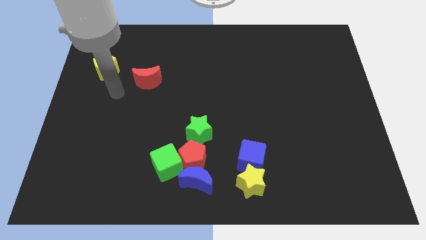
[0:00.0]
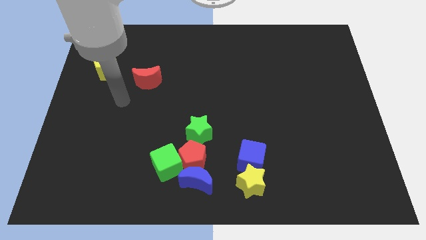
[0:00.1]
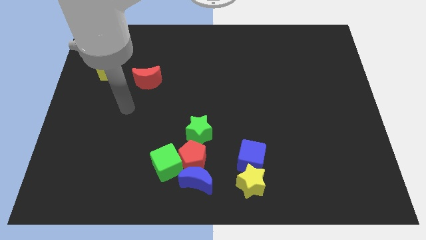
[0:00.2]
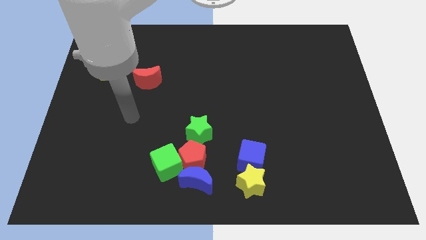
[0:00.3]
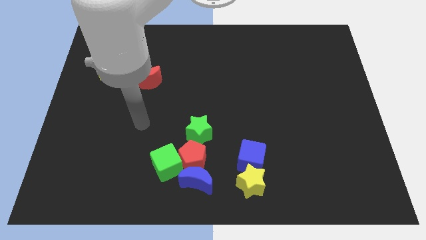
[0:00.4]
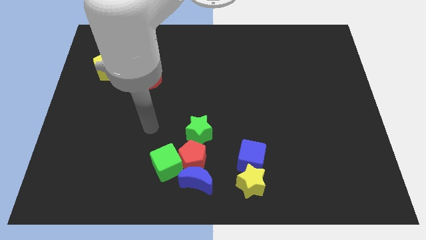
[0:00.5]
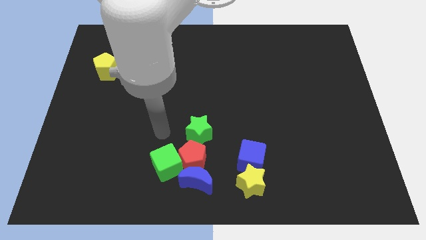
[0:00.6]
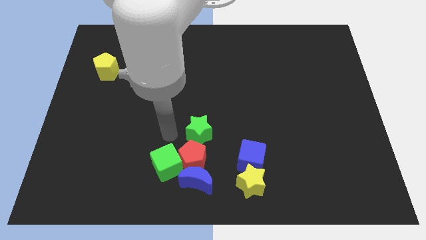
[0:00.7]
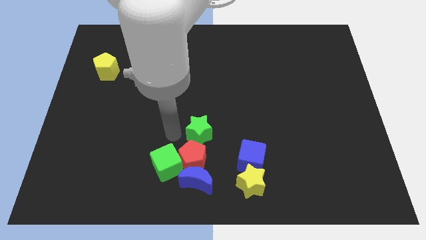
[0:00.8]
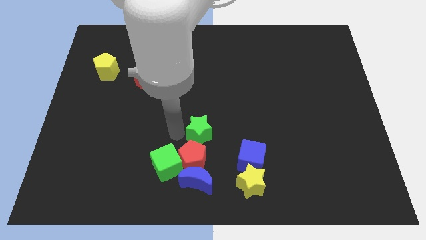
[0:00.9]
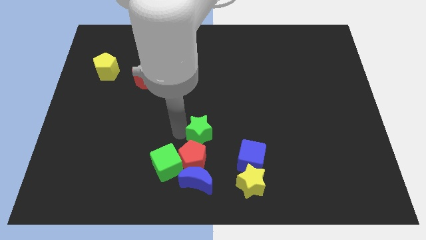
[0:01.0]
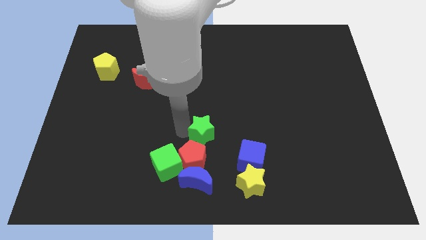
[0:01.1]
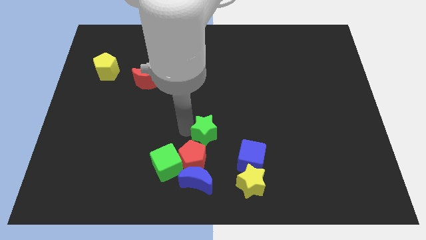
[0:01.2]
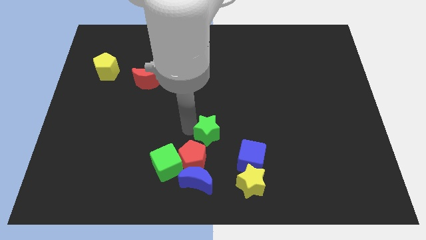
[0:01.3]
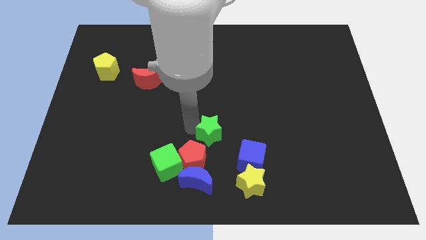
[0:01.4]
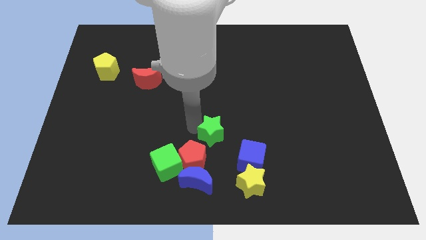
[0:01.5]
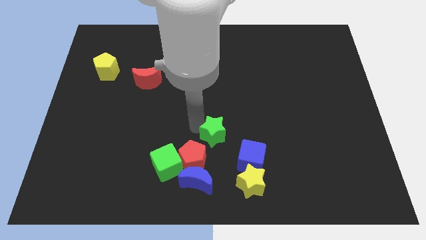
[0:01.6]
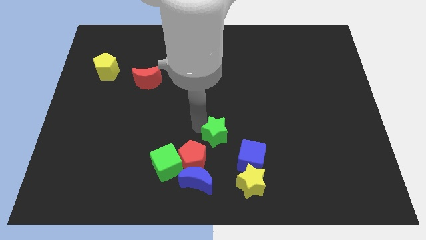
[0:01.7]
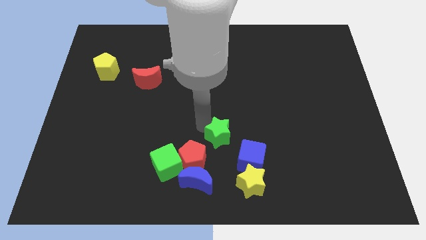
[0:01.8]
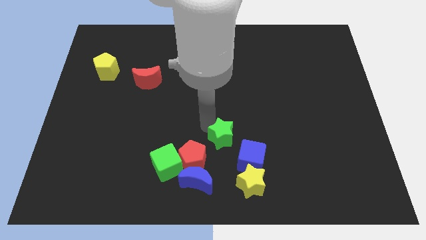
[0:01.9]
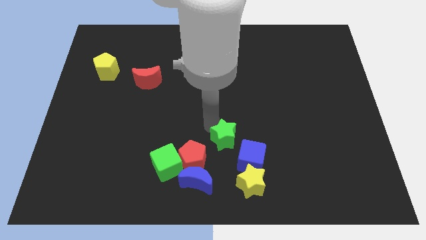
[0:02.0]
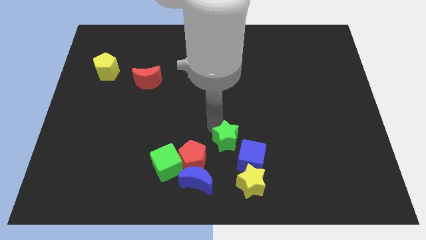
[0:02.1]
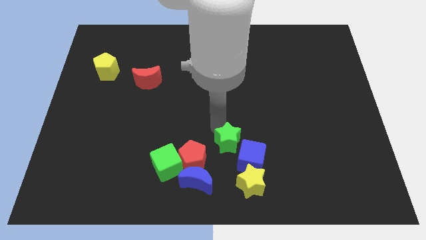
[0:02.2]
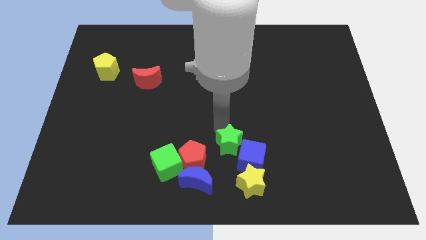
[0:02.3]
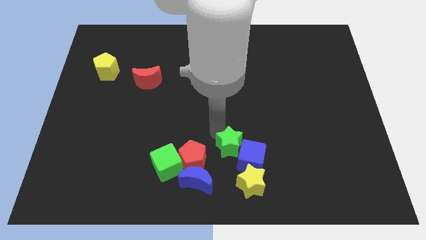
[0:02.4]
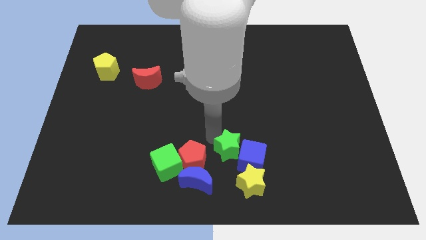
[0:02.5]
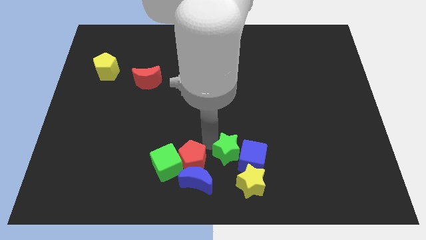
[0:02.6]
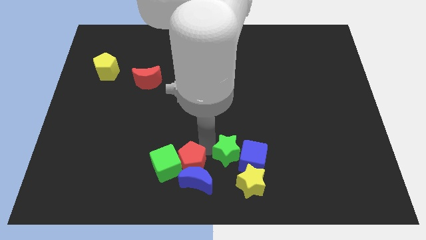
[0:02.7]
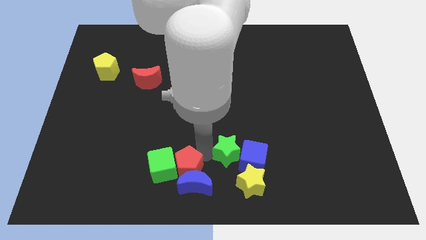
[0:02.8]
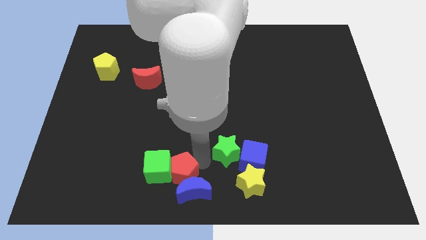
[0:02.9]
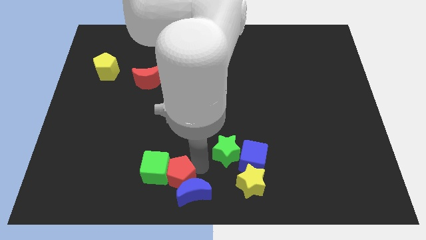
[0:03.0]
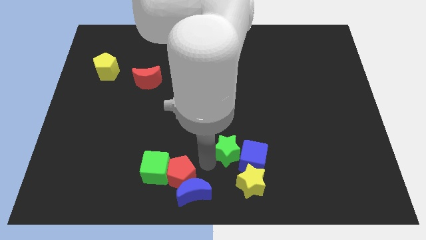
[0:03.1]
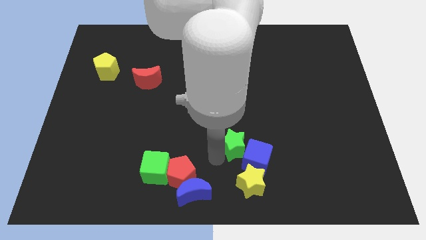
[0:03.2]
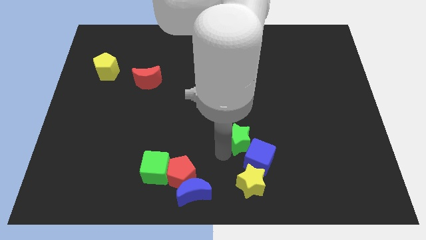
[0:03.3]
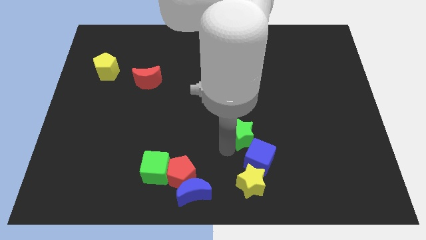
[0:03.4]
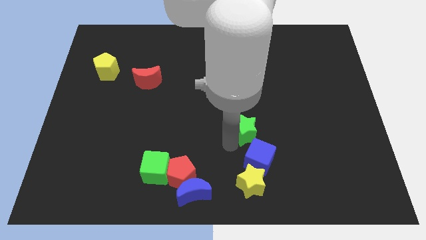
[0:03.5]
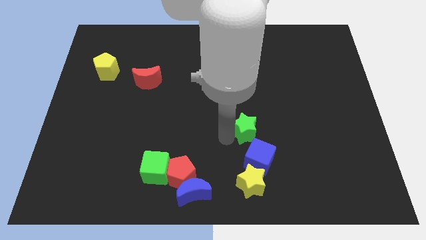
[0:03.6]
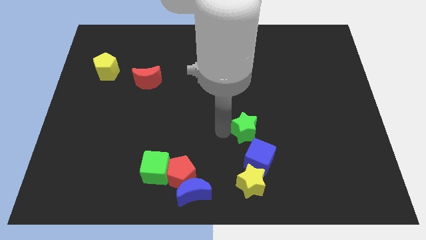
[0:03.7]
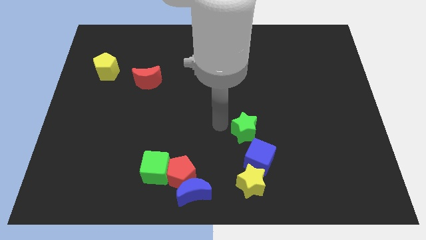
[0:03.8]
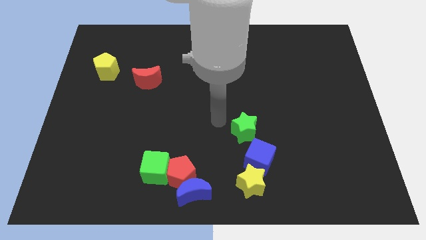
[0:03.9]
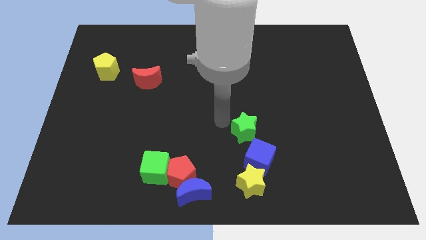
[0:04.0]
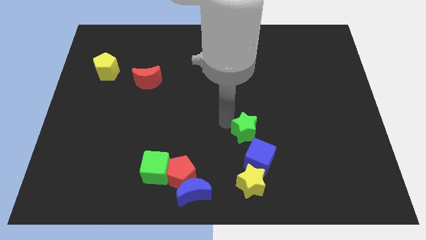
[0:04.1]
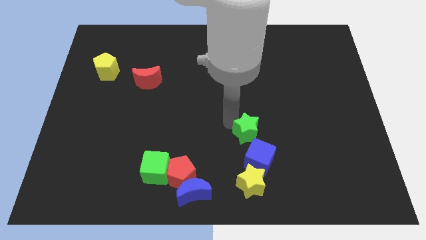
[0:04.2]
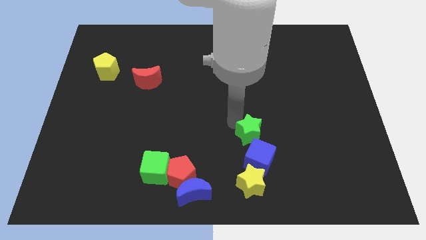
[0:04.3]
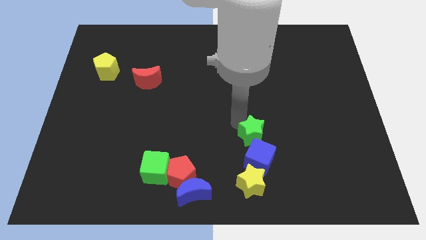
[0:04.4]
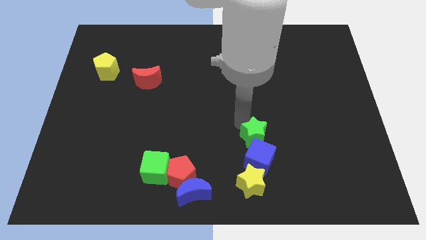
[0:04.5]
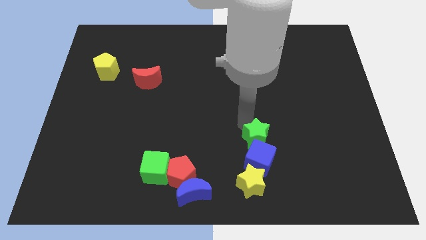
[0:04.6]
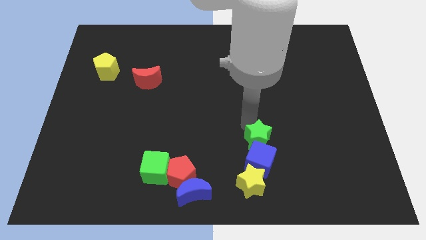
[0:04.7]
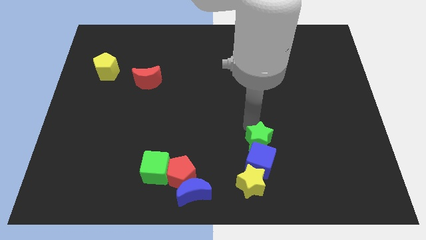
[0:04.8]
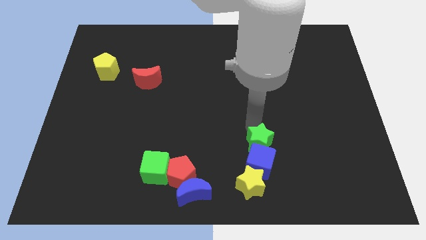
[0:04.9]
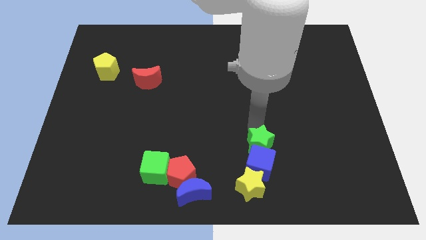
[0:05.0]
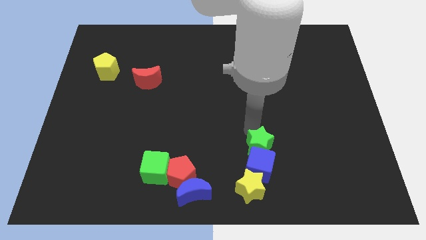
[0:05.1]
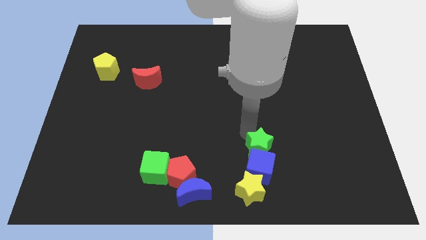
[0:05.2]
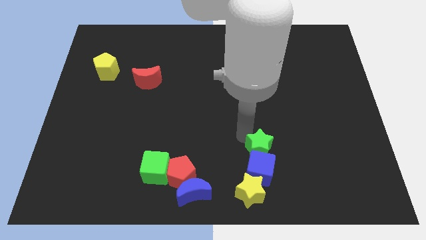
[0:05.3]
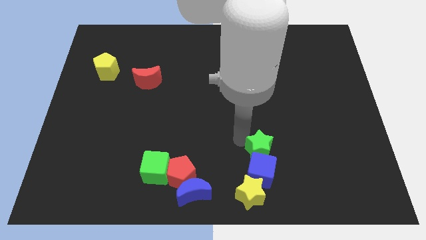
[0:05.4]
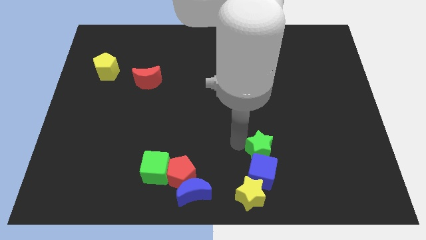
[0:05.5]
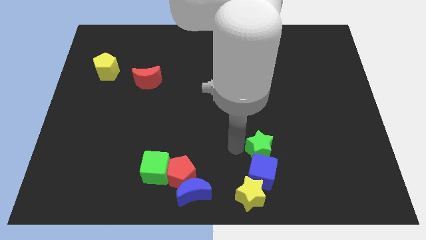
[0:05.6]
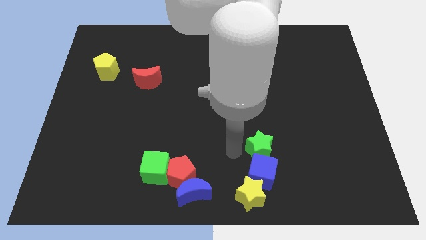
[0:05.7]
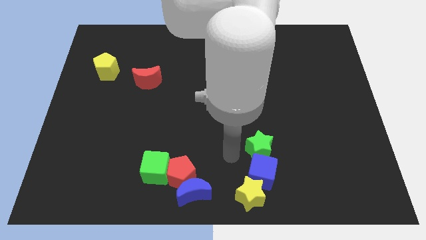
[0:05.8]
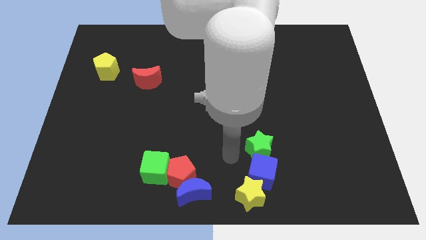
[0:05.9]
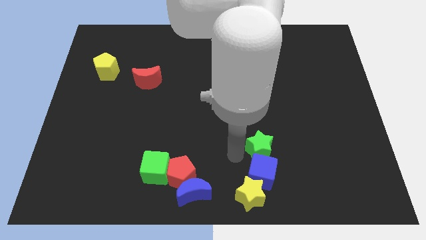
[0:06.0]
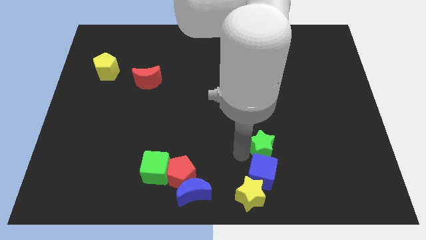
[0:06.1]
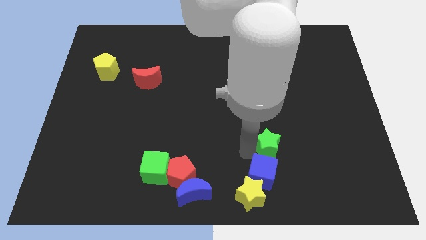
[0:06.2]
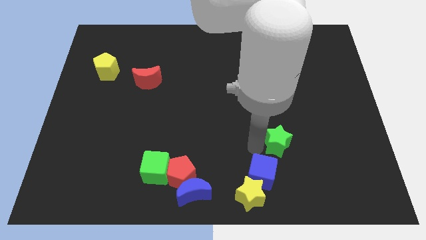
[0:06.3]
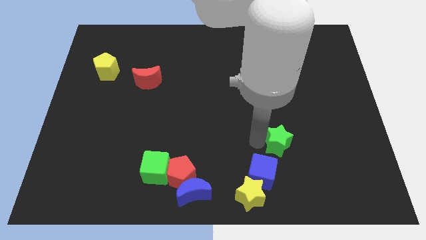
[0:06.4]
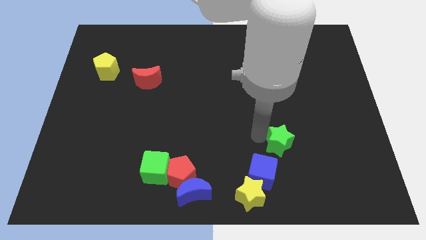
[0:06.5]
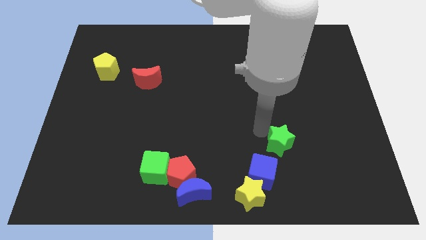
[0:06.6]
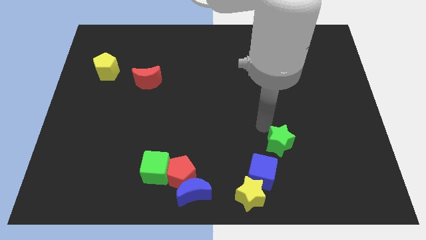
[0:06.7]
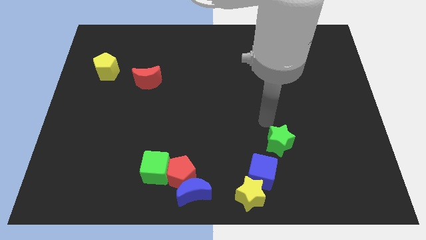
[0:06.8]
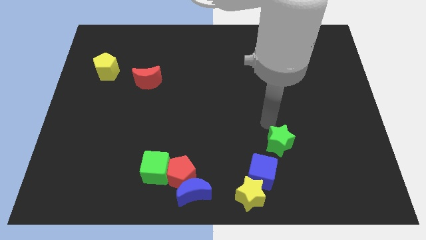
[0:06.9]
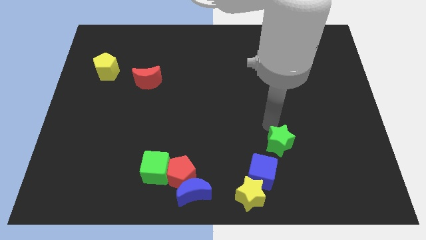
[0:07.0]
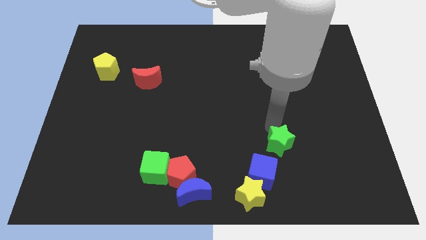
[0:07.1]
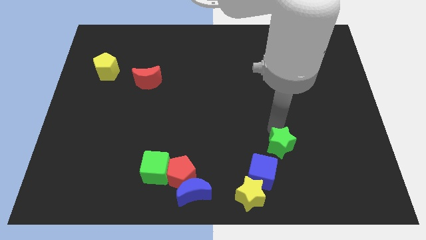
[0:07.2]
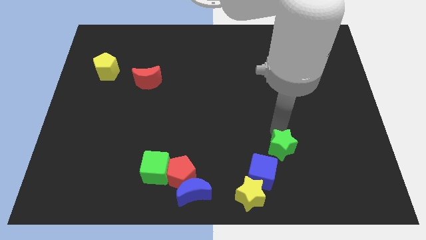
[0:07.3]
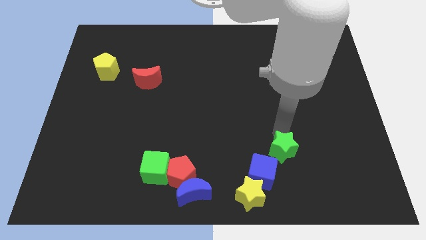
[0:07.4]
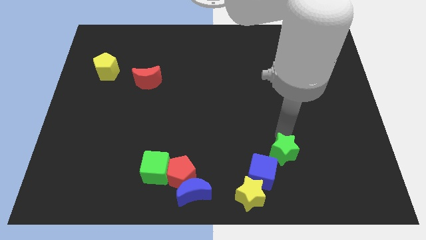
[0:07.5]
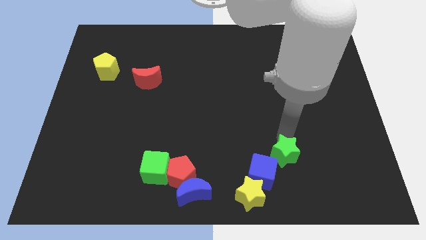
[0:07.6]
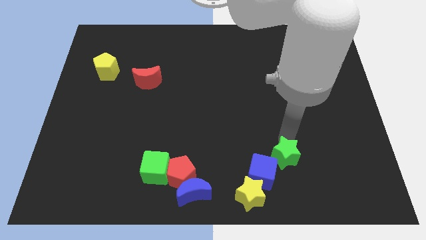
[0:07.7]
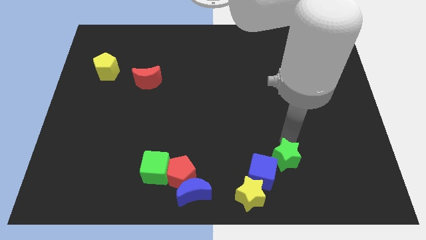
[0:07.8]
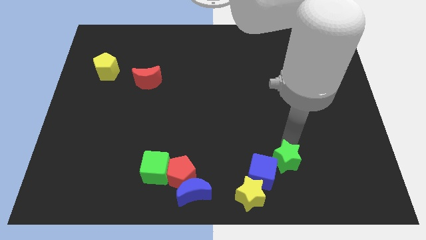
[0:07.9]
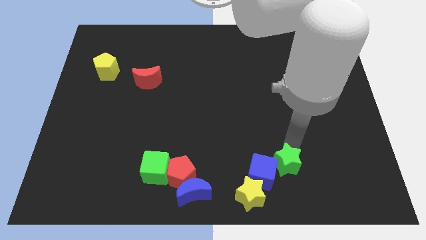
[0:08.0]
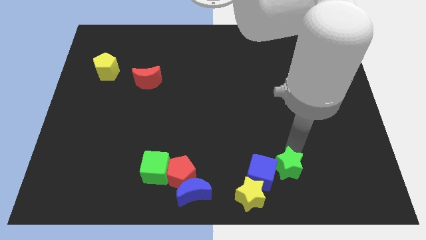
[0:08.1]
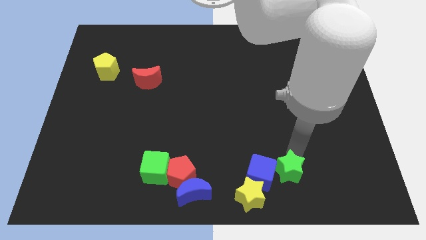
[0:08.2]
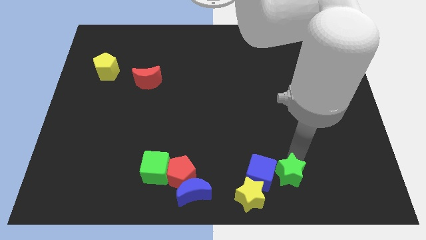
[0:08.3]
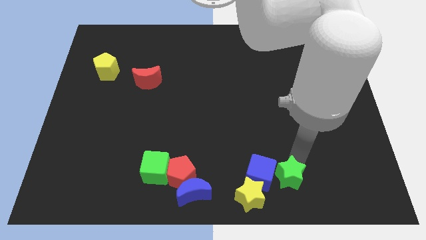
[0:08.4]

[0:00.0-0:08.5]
put the green star right of the yellow star
